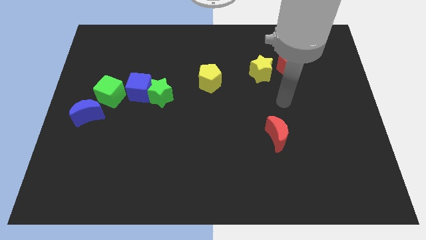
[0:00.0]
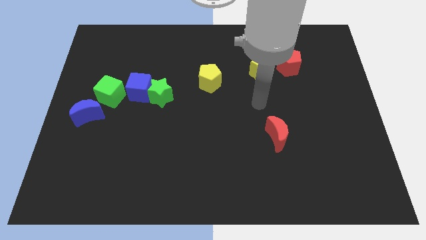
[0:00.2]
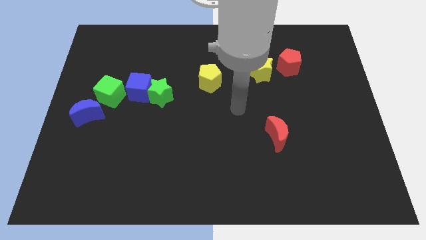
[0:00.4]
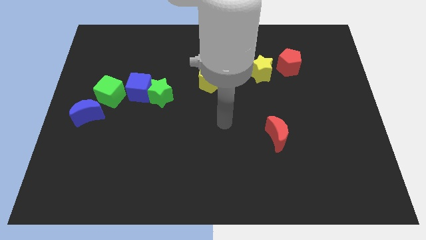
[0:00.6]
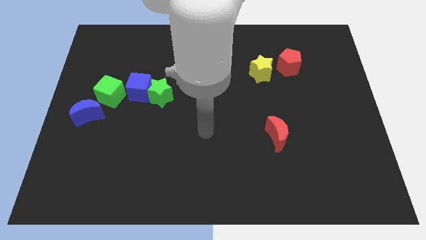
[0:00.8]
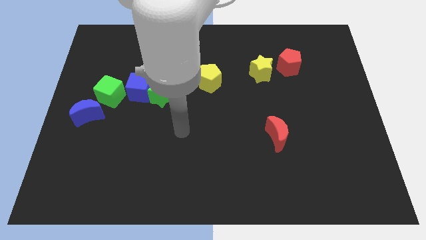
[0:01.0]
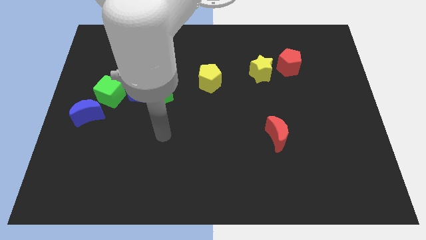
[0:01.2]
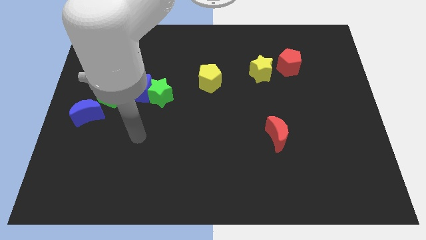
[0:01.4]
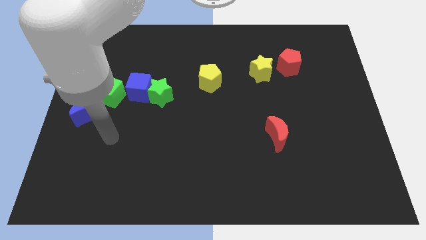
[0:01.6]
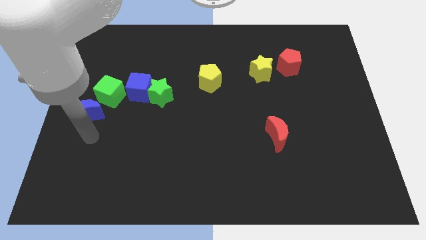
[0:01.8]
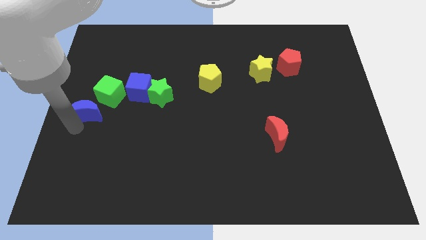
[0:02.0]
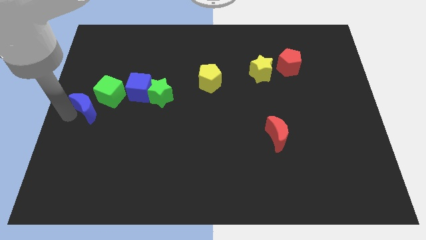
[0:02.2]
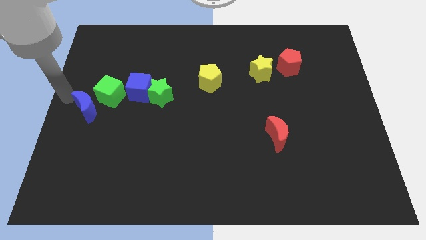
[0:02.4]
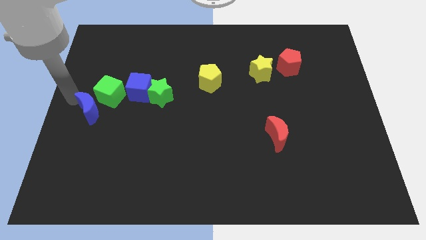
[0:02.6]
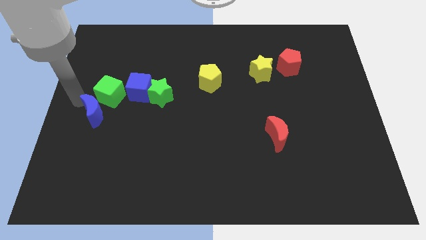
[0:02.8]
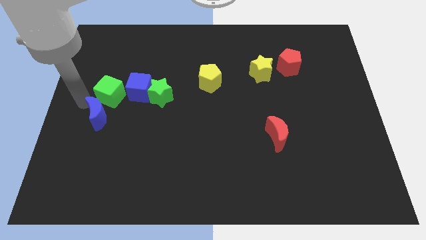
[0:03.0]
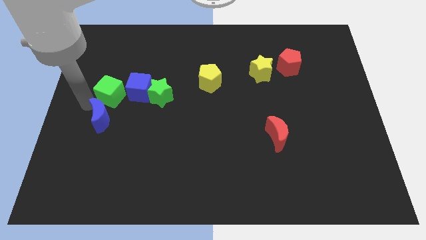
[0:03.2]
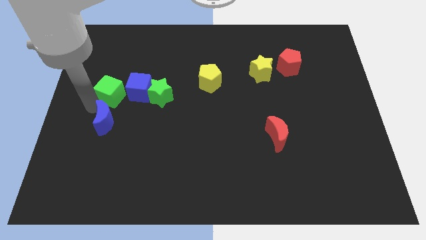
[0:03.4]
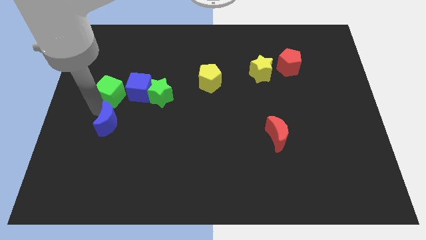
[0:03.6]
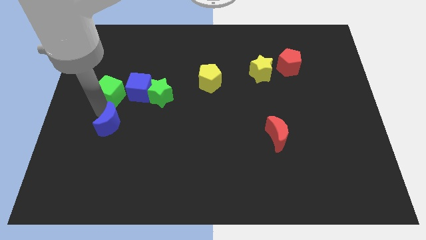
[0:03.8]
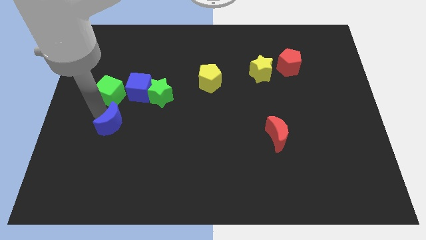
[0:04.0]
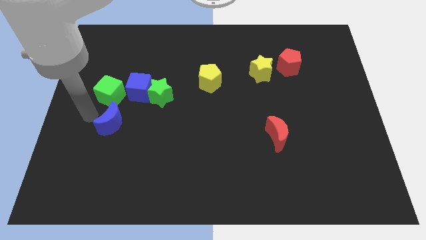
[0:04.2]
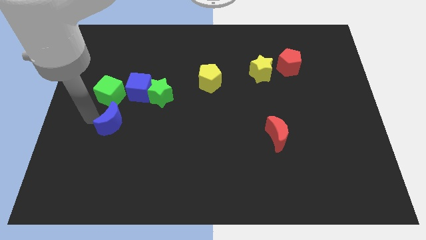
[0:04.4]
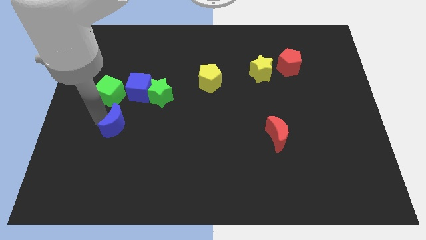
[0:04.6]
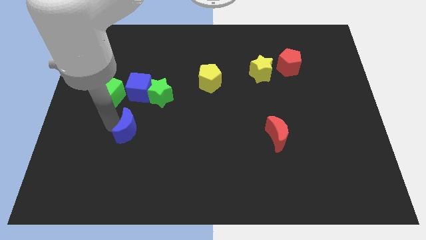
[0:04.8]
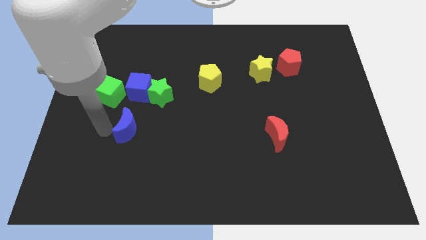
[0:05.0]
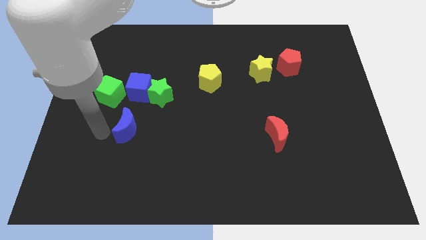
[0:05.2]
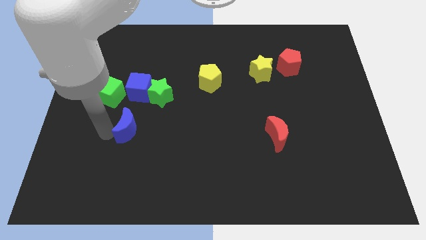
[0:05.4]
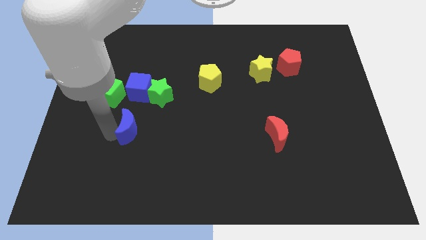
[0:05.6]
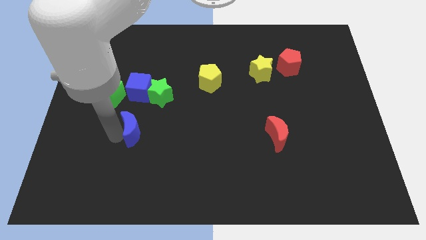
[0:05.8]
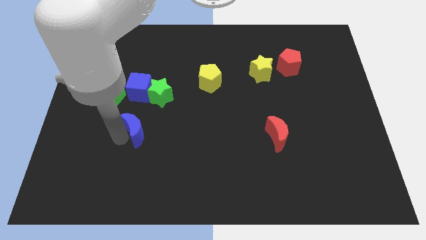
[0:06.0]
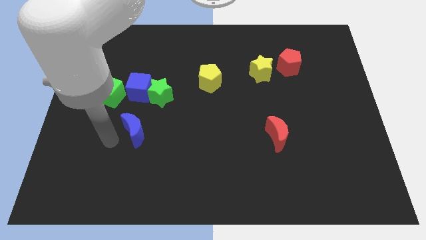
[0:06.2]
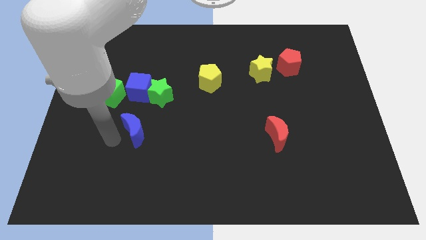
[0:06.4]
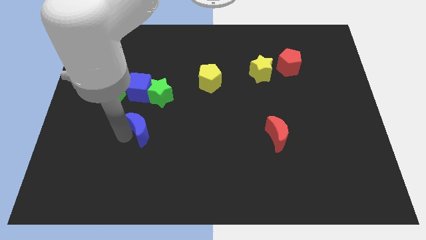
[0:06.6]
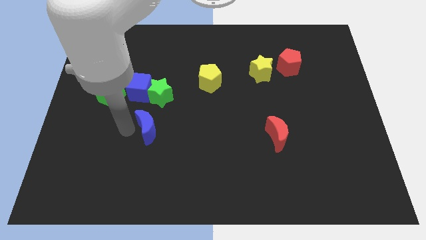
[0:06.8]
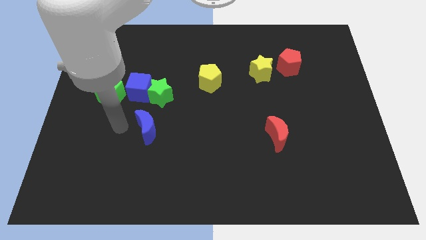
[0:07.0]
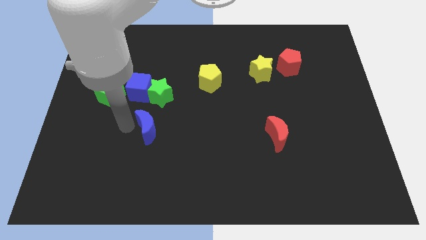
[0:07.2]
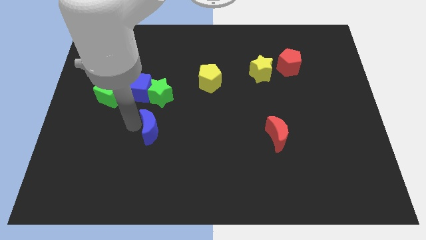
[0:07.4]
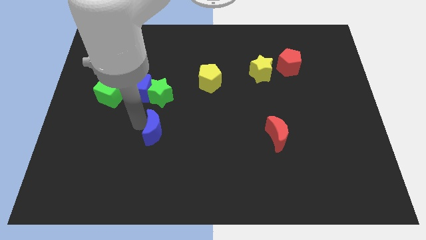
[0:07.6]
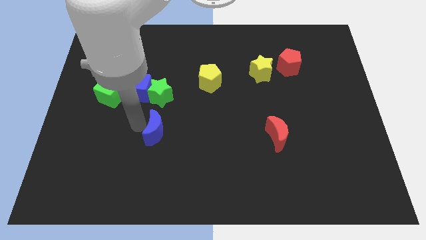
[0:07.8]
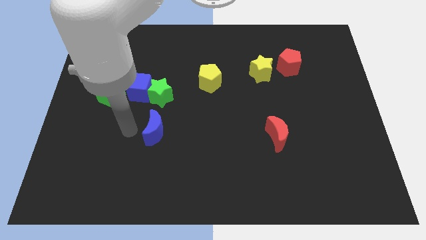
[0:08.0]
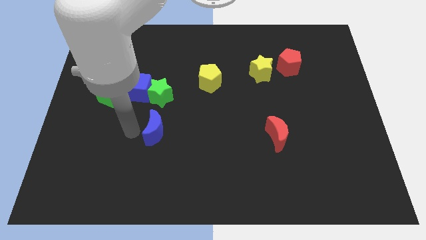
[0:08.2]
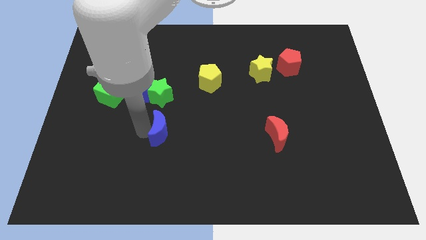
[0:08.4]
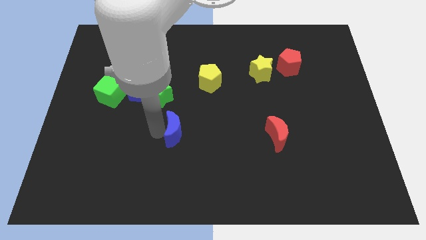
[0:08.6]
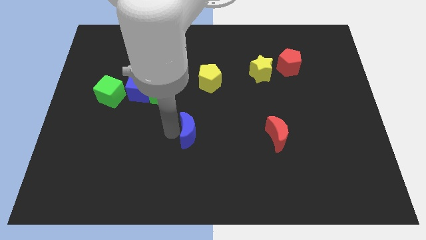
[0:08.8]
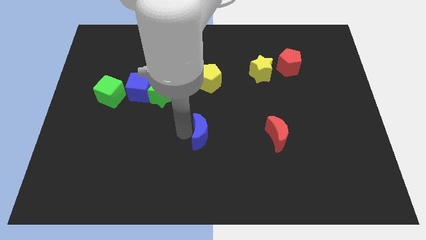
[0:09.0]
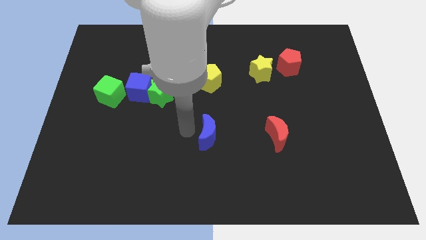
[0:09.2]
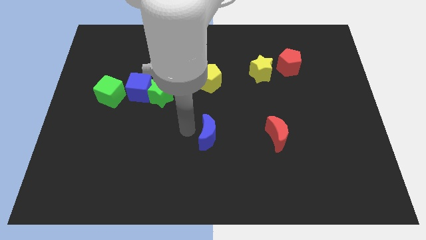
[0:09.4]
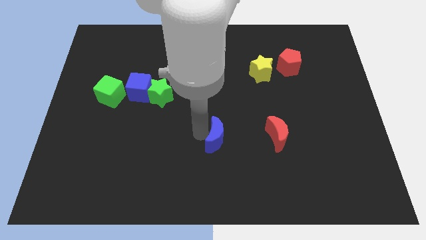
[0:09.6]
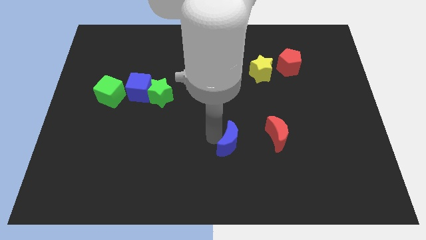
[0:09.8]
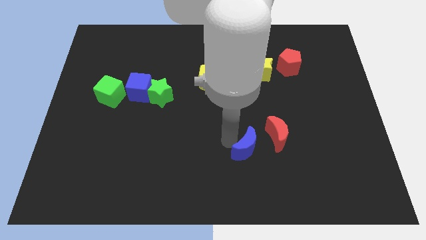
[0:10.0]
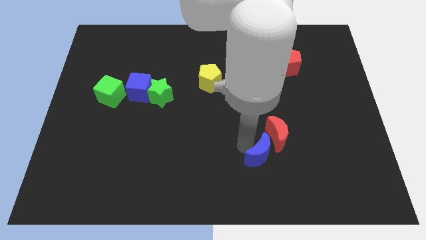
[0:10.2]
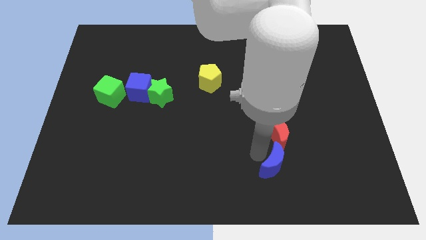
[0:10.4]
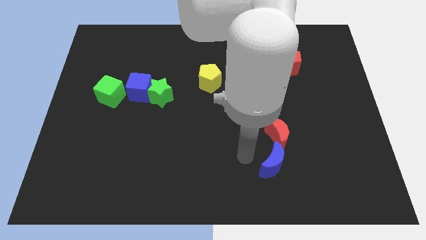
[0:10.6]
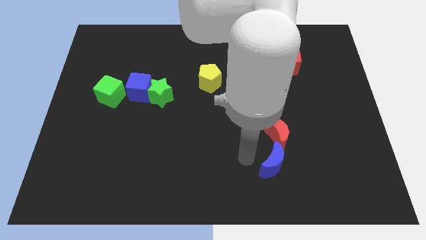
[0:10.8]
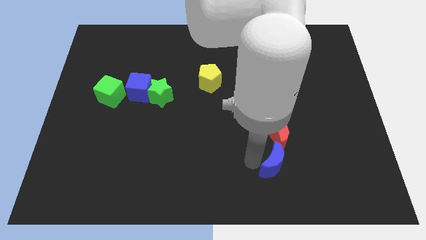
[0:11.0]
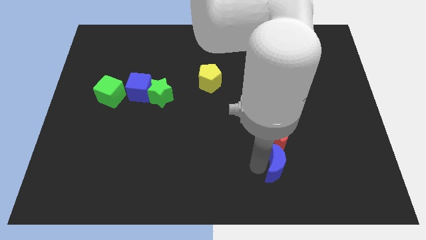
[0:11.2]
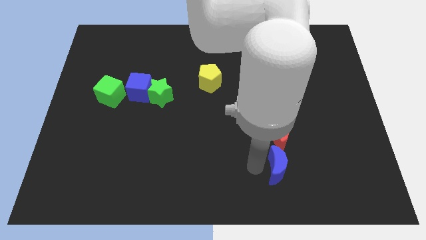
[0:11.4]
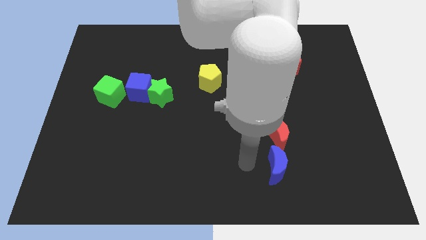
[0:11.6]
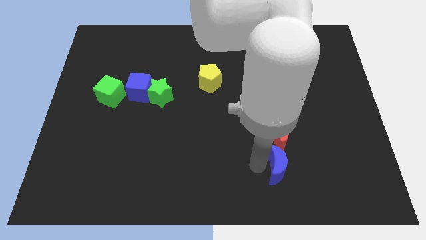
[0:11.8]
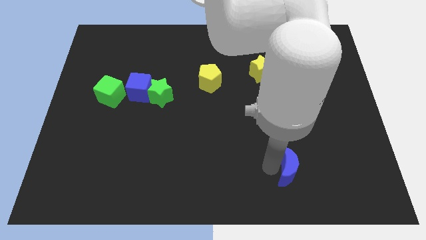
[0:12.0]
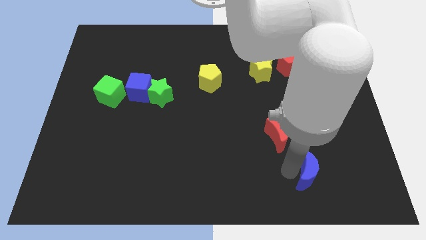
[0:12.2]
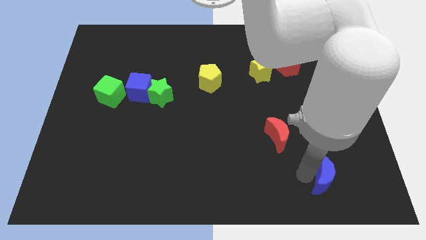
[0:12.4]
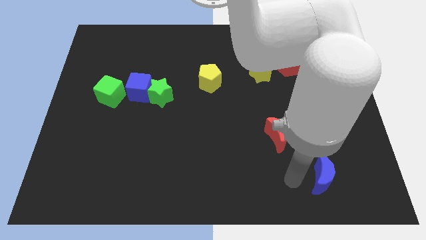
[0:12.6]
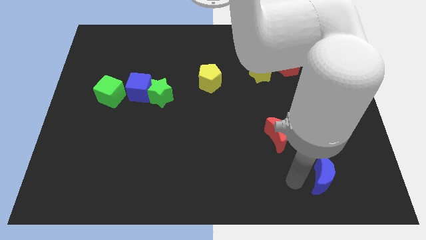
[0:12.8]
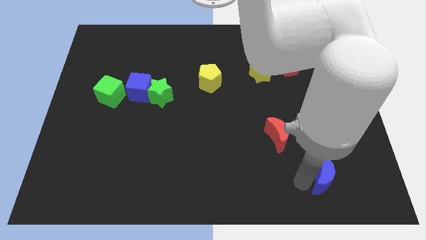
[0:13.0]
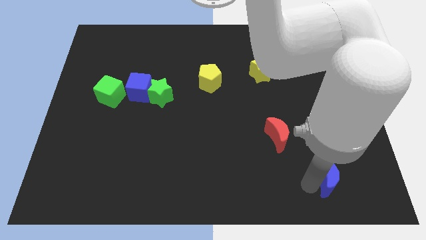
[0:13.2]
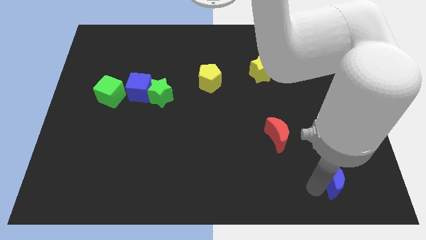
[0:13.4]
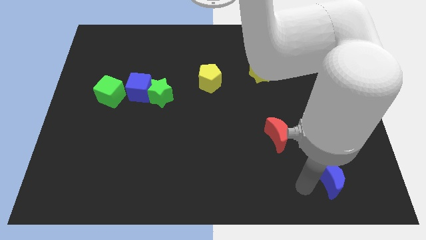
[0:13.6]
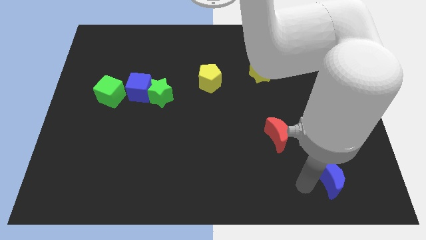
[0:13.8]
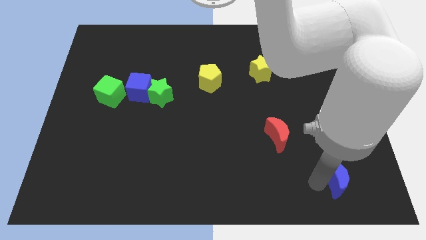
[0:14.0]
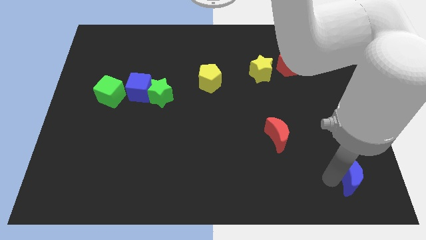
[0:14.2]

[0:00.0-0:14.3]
push the blue moon to the bottom right of the board
